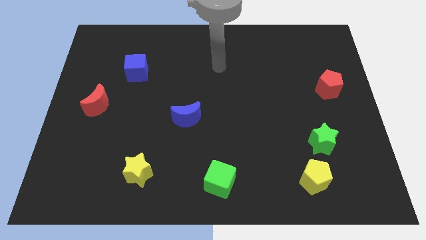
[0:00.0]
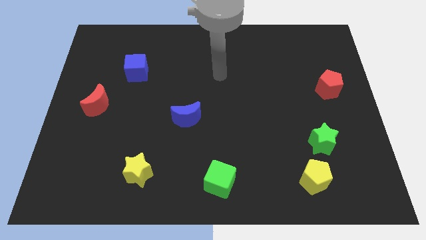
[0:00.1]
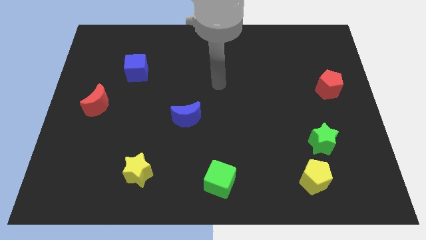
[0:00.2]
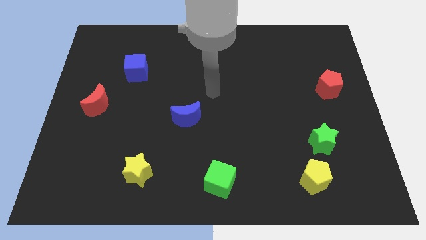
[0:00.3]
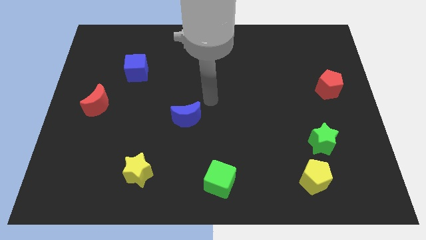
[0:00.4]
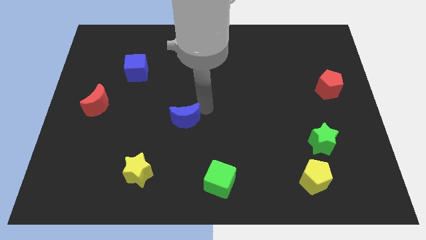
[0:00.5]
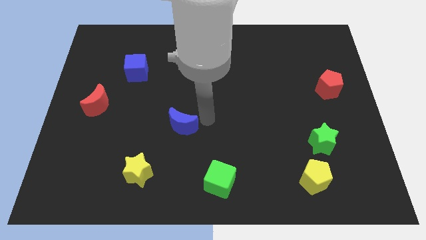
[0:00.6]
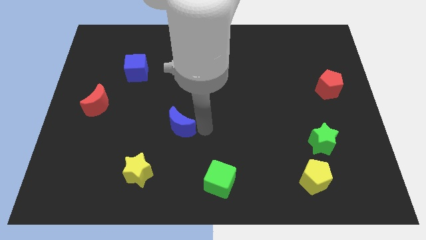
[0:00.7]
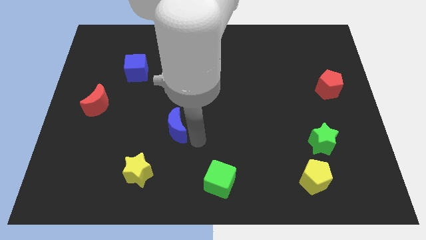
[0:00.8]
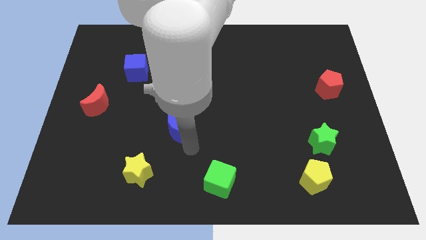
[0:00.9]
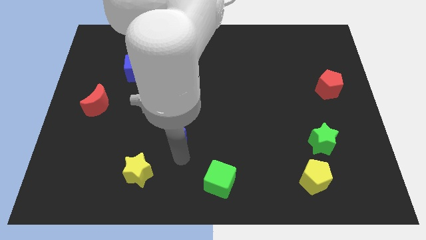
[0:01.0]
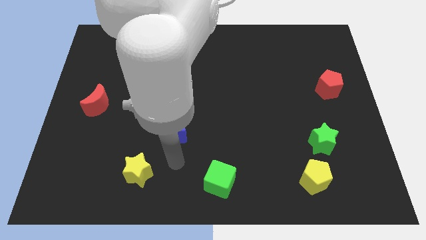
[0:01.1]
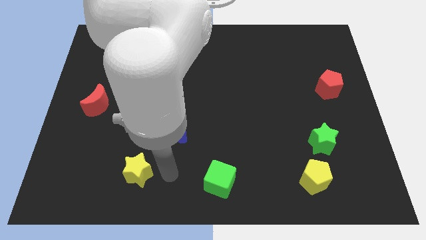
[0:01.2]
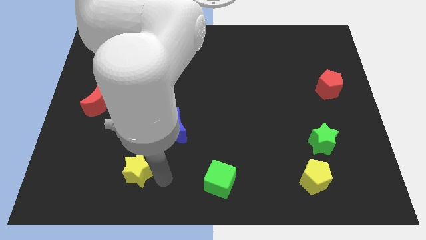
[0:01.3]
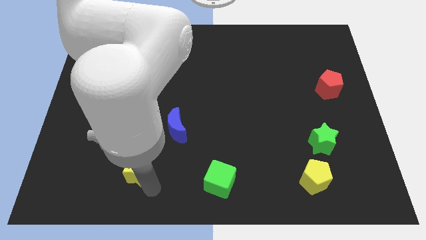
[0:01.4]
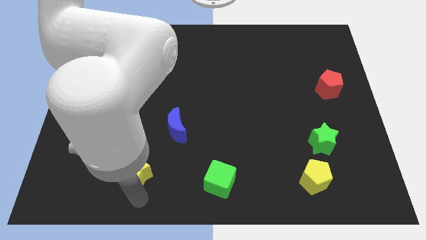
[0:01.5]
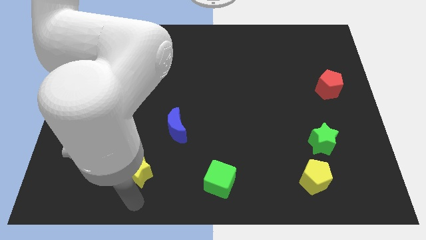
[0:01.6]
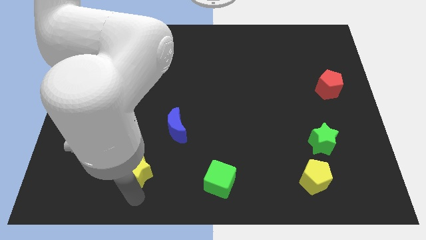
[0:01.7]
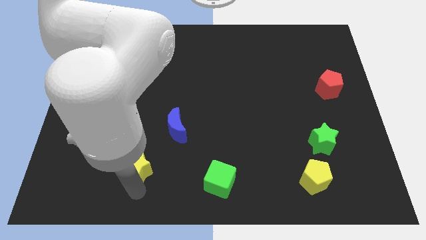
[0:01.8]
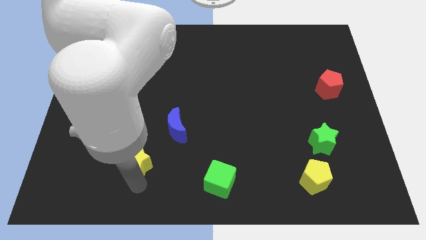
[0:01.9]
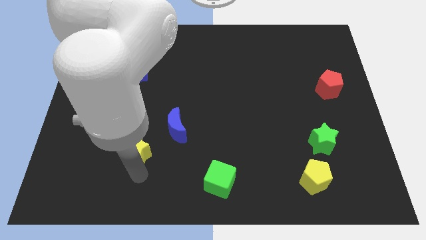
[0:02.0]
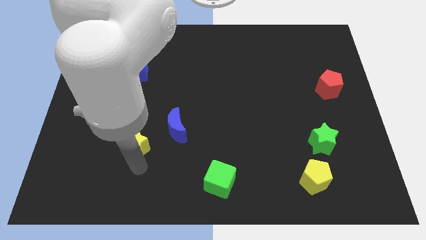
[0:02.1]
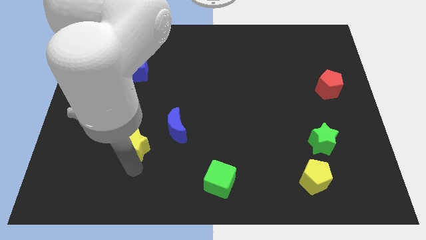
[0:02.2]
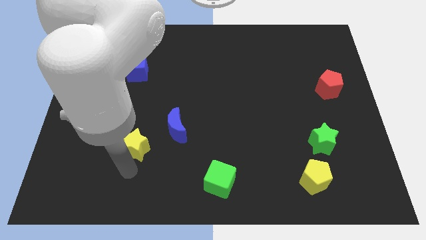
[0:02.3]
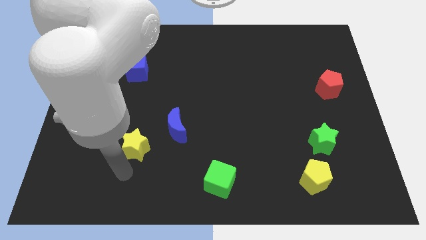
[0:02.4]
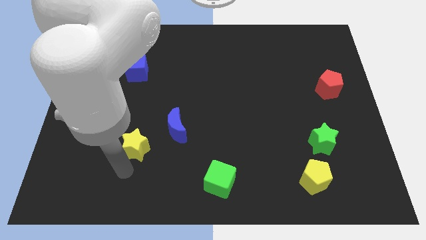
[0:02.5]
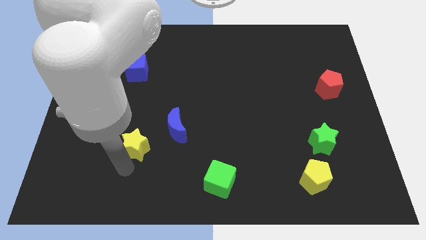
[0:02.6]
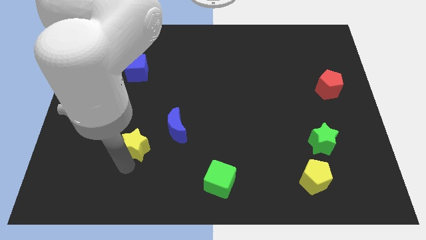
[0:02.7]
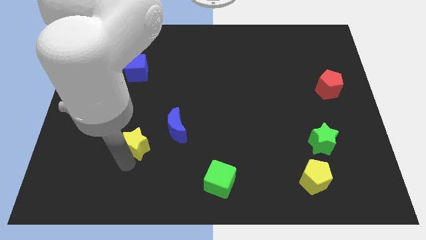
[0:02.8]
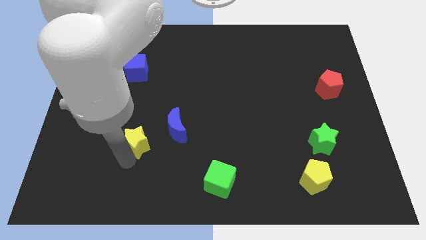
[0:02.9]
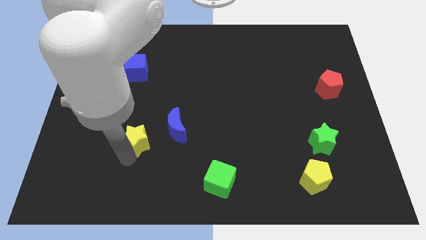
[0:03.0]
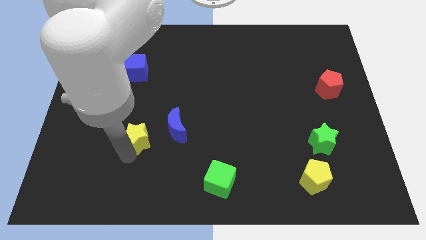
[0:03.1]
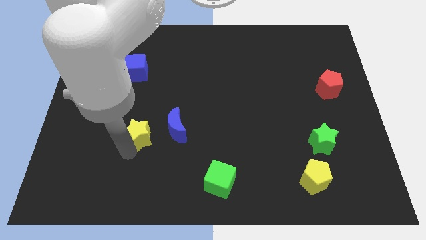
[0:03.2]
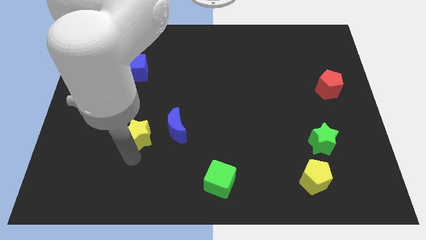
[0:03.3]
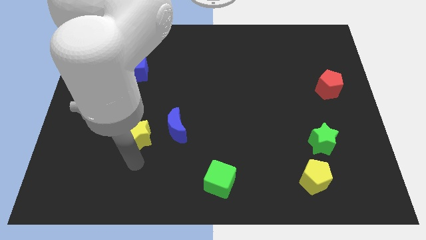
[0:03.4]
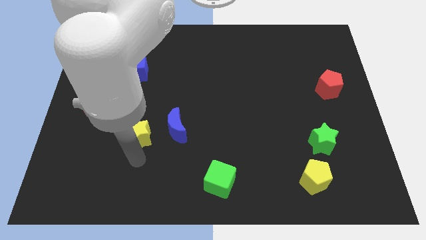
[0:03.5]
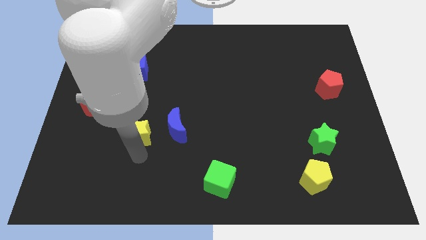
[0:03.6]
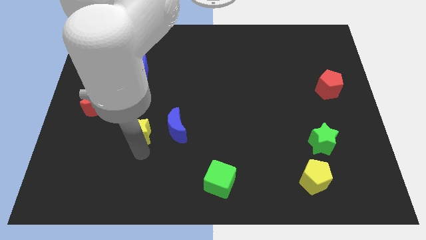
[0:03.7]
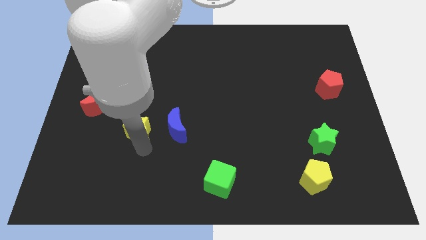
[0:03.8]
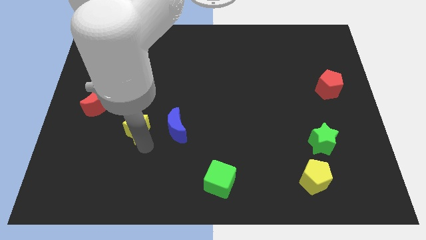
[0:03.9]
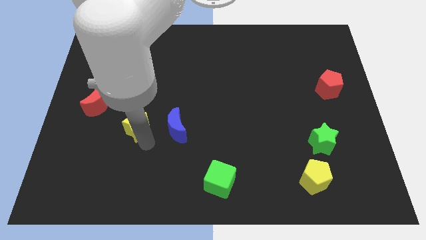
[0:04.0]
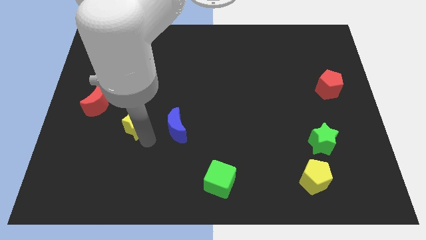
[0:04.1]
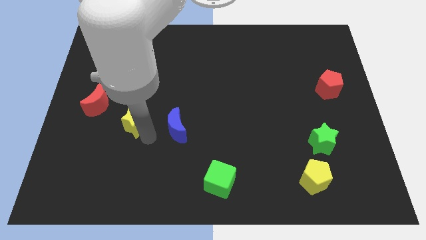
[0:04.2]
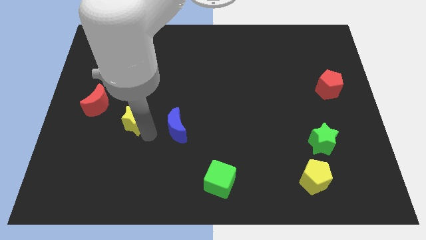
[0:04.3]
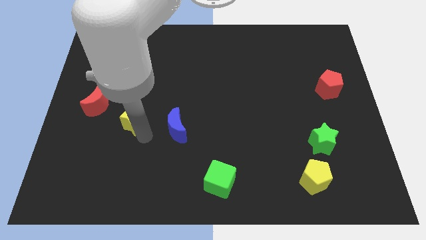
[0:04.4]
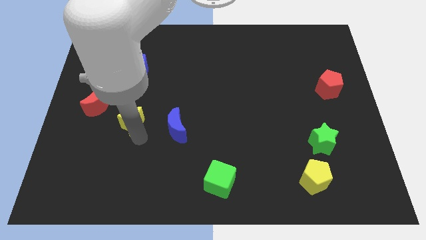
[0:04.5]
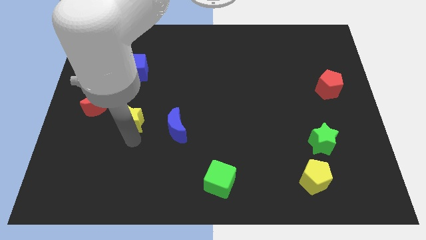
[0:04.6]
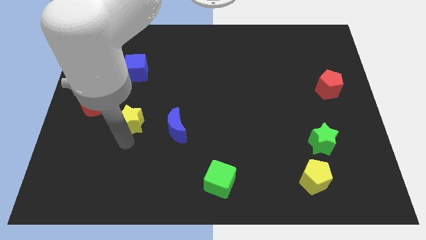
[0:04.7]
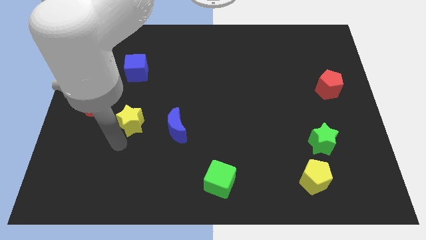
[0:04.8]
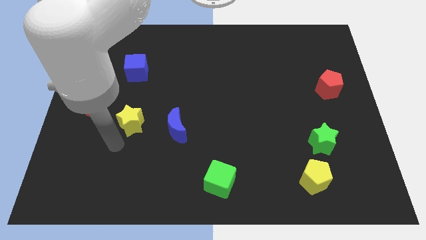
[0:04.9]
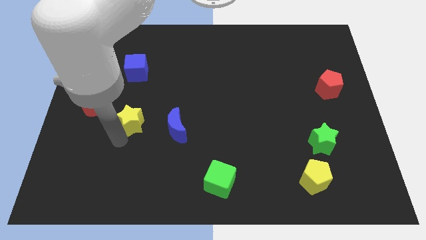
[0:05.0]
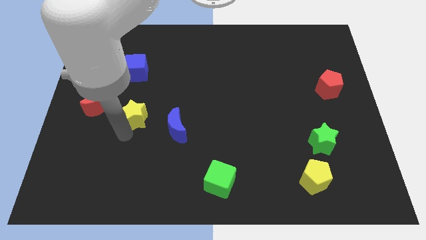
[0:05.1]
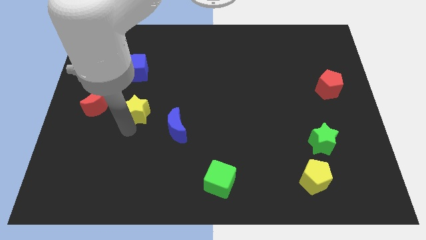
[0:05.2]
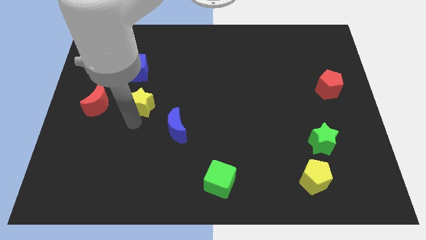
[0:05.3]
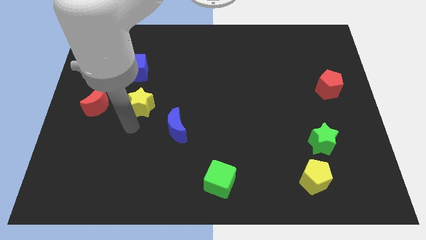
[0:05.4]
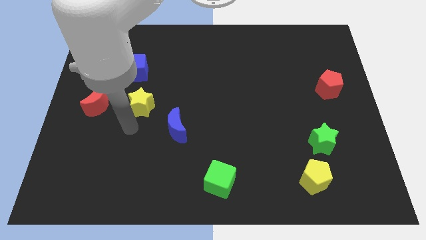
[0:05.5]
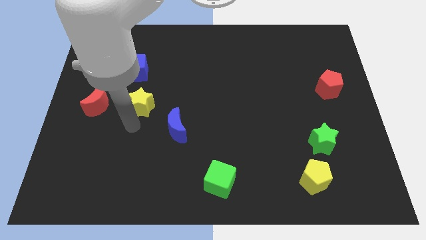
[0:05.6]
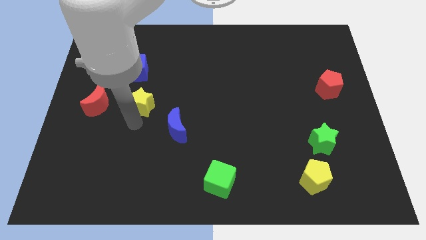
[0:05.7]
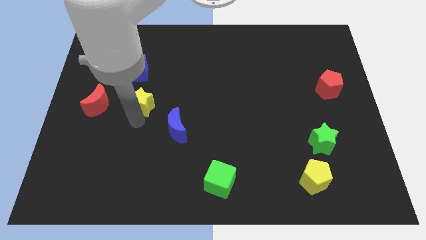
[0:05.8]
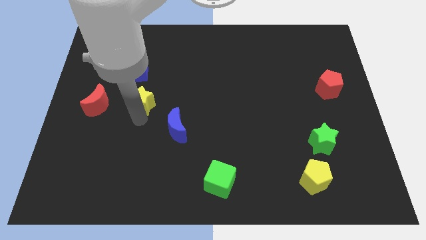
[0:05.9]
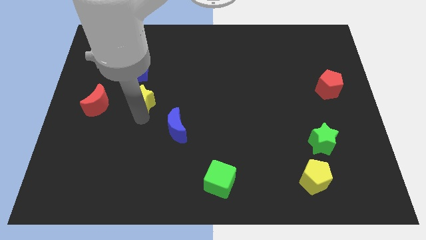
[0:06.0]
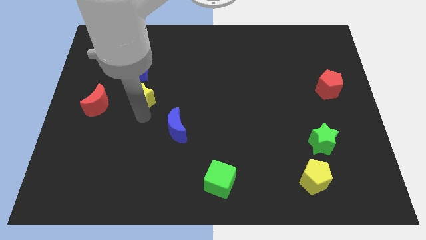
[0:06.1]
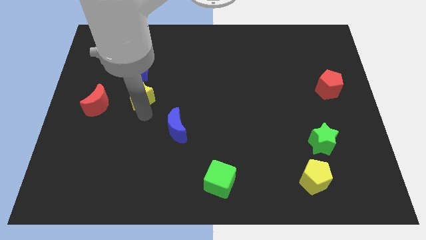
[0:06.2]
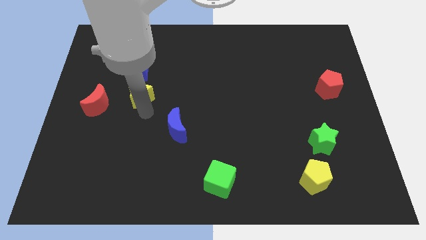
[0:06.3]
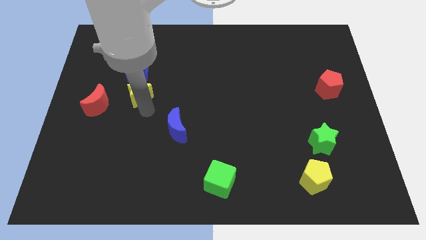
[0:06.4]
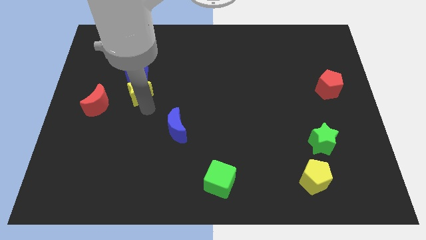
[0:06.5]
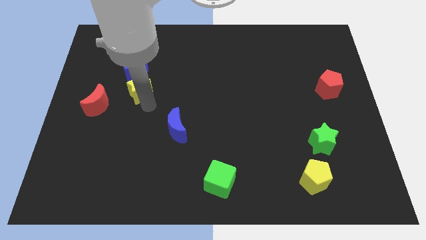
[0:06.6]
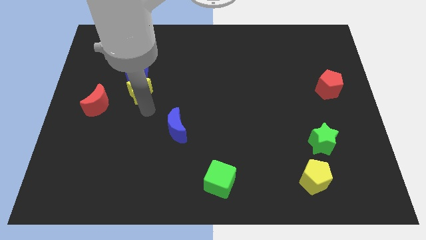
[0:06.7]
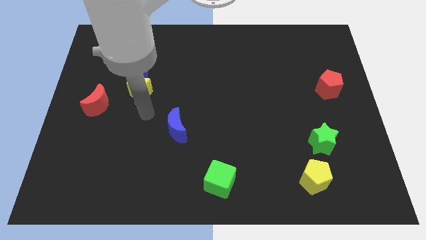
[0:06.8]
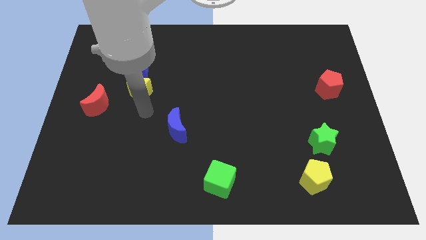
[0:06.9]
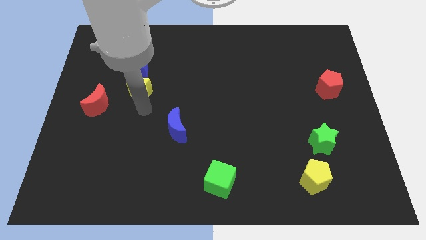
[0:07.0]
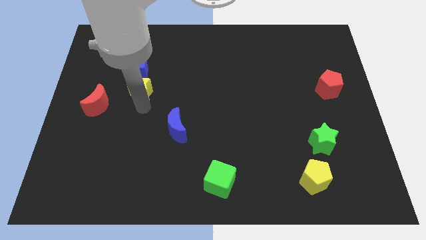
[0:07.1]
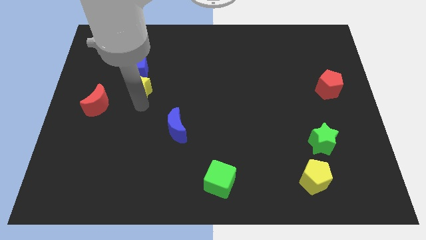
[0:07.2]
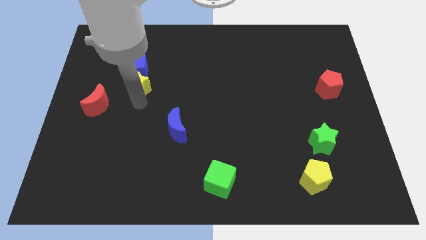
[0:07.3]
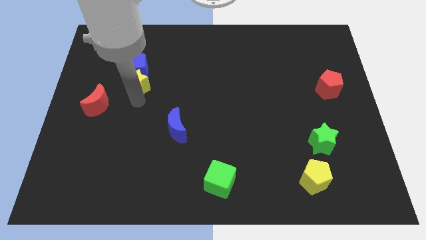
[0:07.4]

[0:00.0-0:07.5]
put the yellow star to the blue cube
